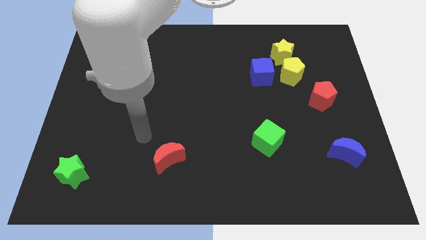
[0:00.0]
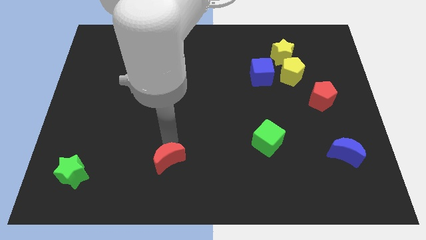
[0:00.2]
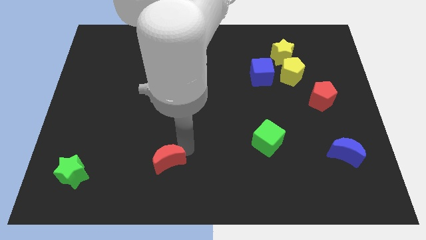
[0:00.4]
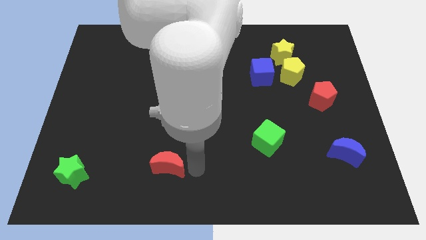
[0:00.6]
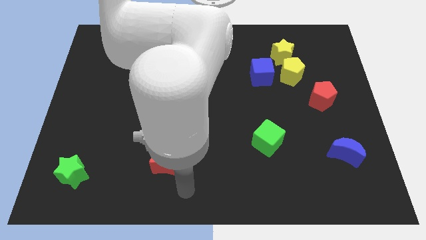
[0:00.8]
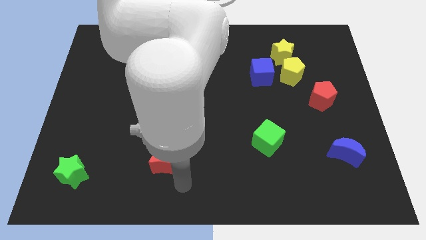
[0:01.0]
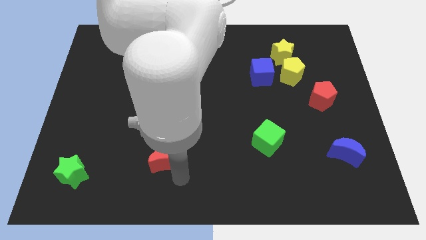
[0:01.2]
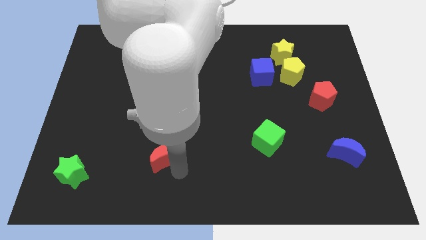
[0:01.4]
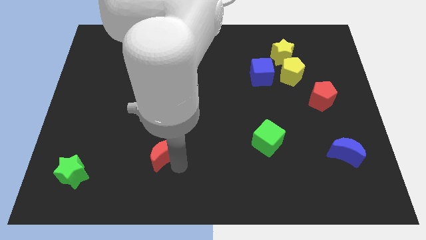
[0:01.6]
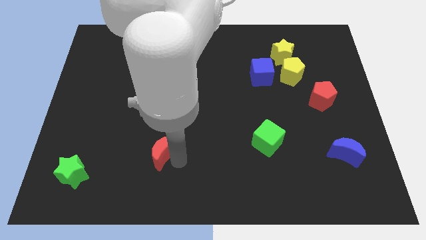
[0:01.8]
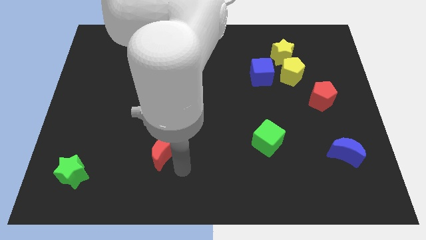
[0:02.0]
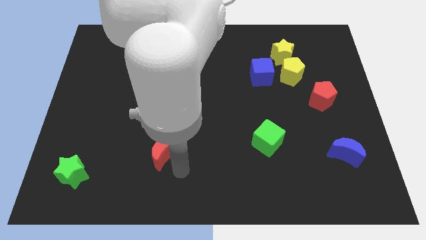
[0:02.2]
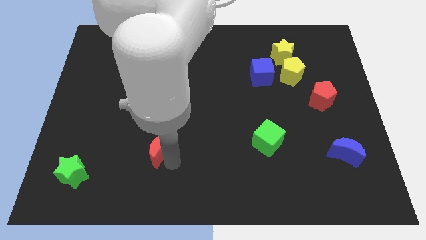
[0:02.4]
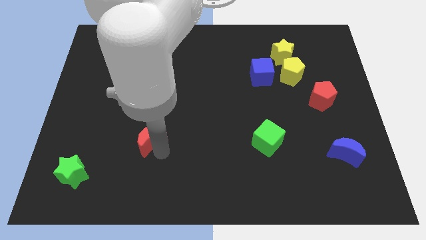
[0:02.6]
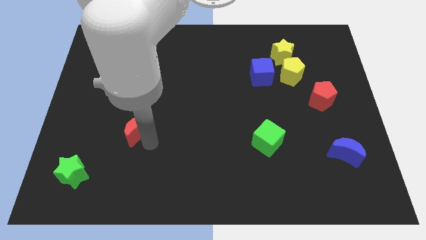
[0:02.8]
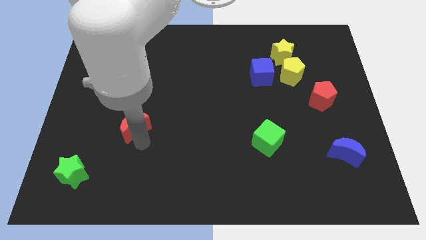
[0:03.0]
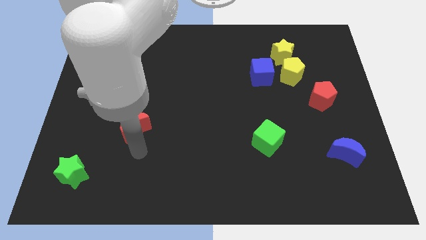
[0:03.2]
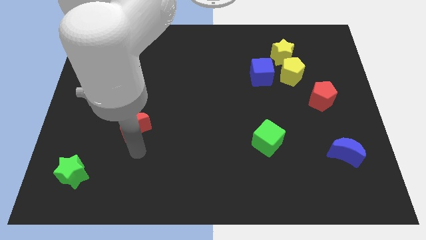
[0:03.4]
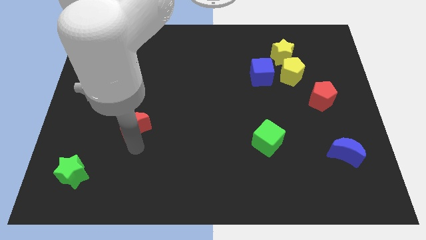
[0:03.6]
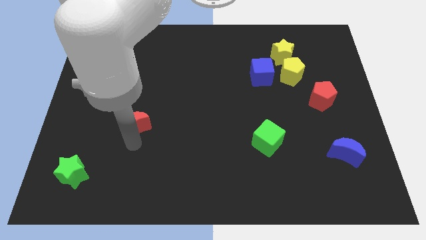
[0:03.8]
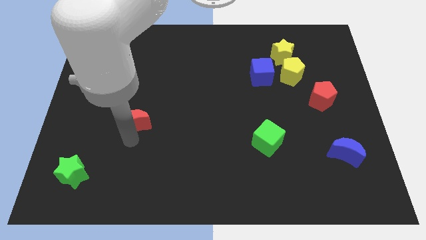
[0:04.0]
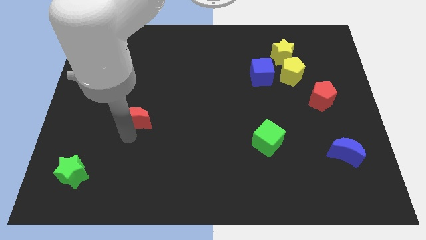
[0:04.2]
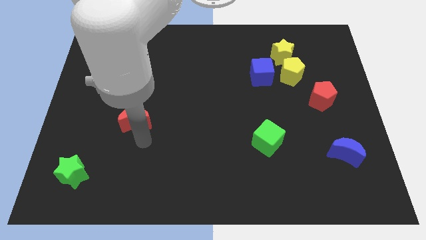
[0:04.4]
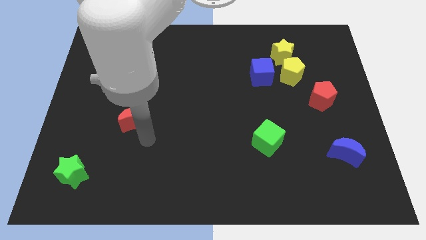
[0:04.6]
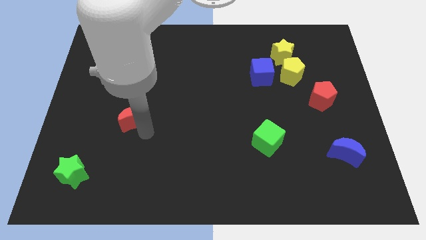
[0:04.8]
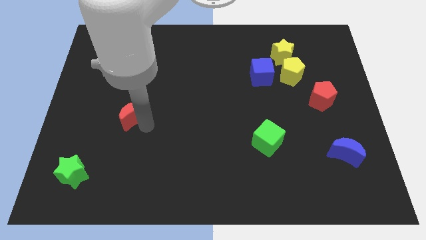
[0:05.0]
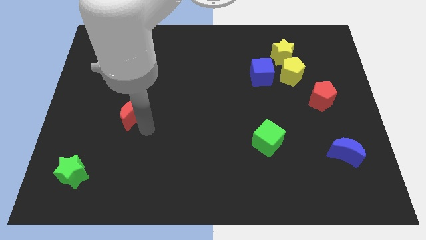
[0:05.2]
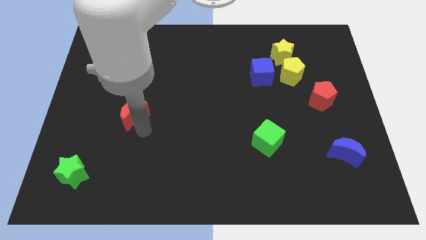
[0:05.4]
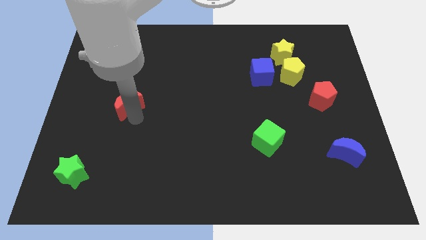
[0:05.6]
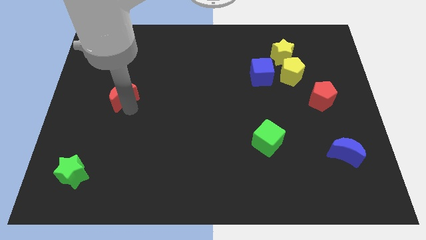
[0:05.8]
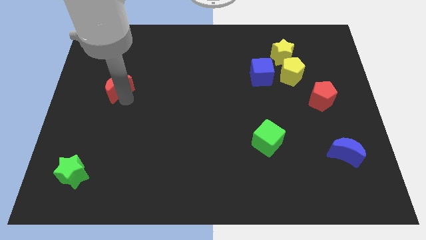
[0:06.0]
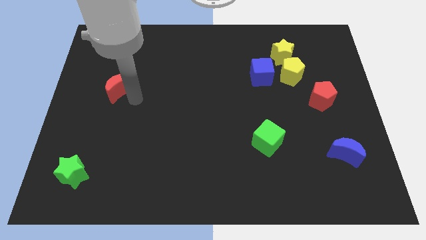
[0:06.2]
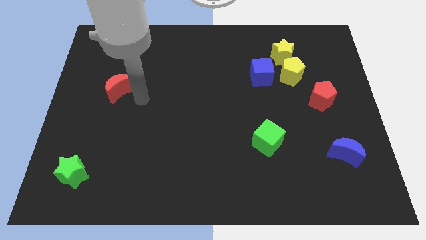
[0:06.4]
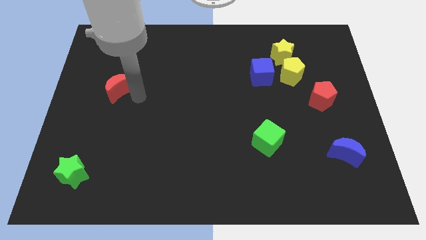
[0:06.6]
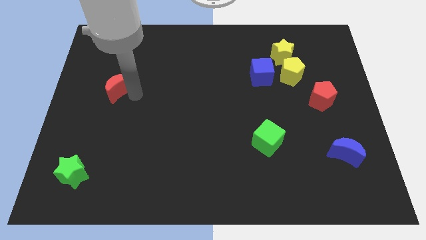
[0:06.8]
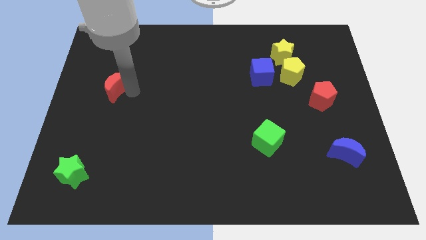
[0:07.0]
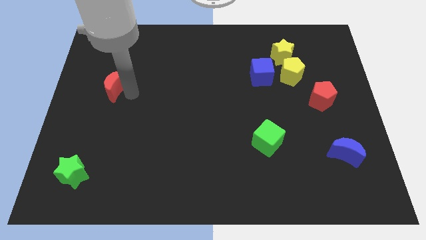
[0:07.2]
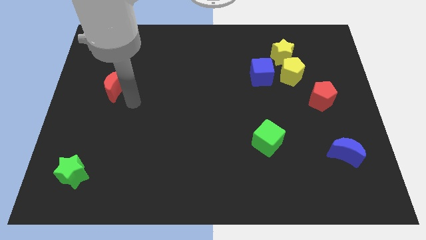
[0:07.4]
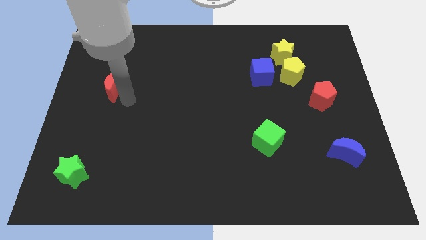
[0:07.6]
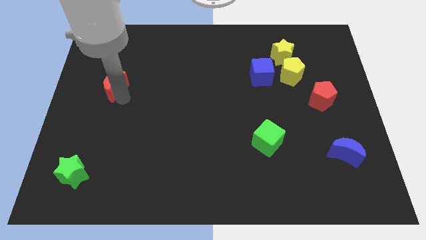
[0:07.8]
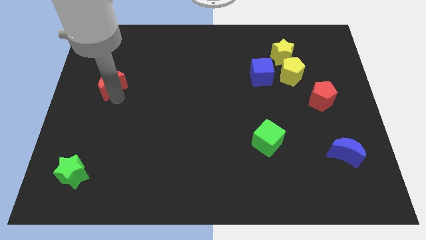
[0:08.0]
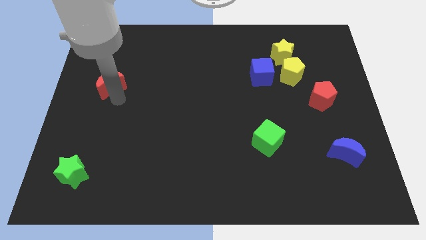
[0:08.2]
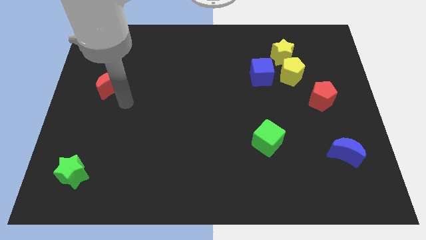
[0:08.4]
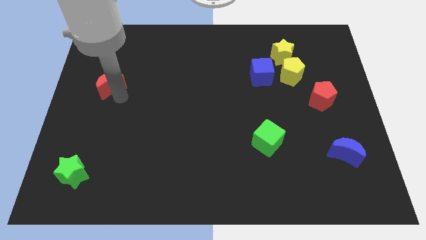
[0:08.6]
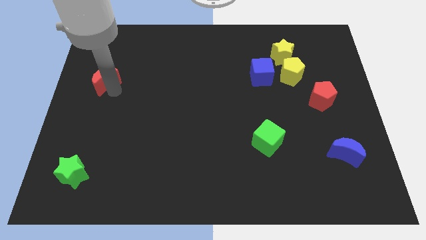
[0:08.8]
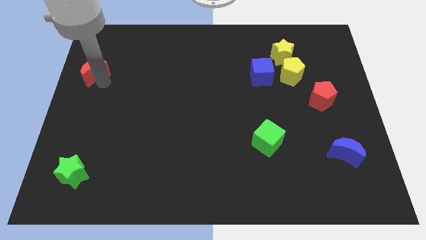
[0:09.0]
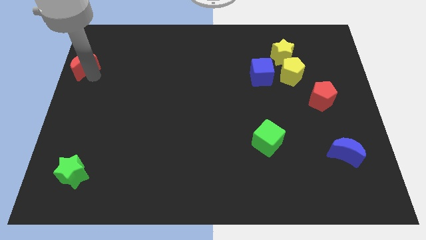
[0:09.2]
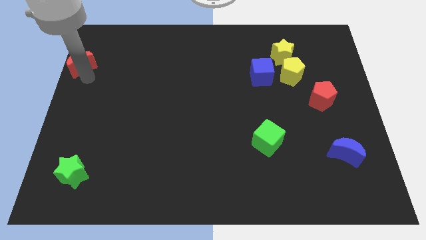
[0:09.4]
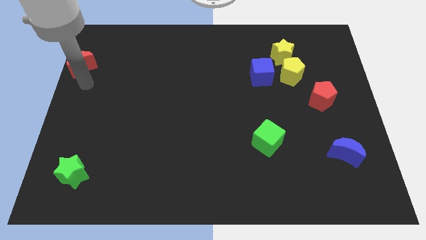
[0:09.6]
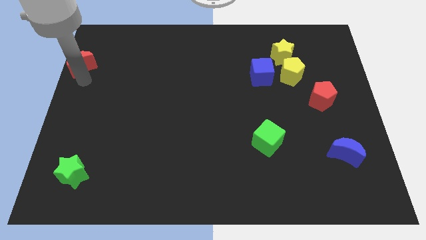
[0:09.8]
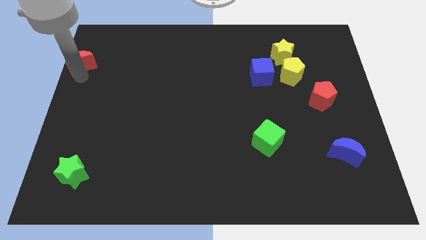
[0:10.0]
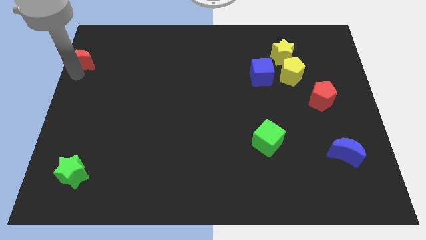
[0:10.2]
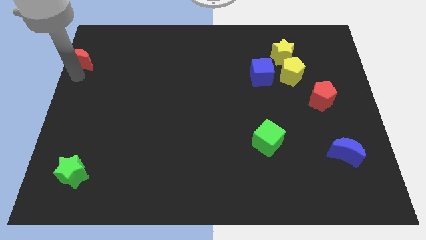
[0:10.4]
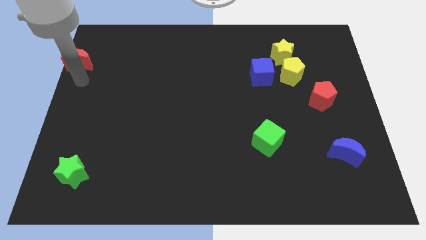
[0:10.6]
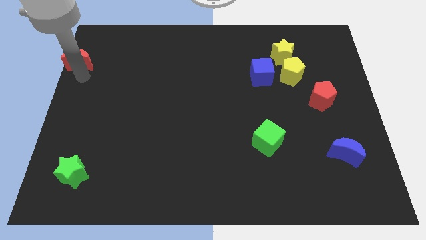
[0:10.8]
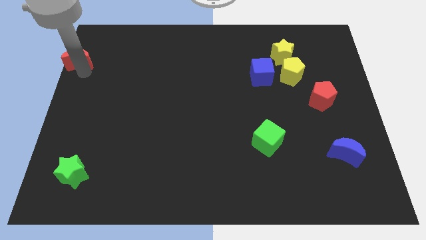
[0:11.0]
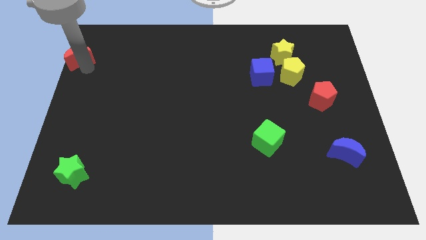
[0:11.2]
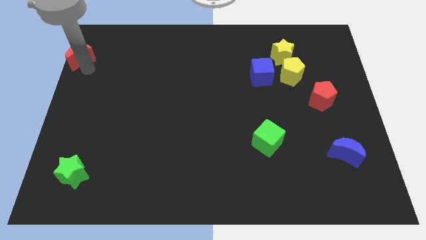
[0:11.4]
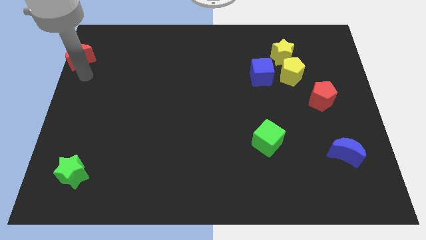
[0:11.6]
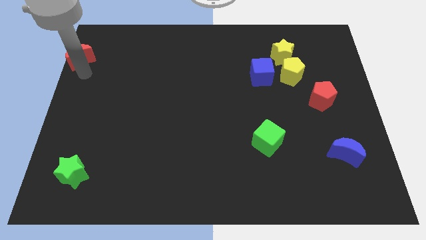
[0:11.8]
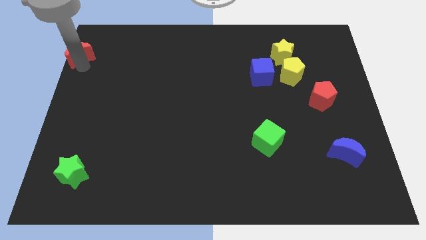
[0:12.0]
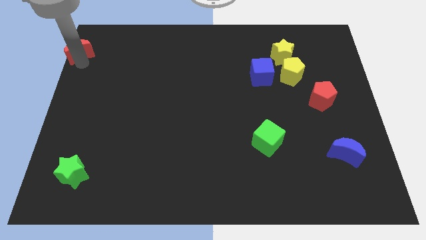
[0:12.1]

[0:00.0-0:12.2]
put the red moon to the top left
